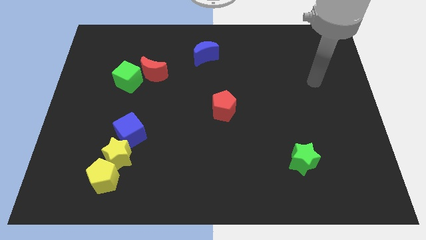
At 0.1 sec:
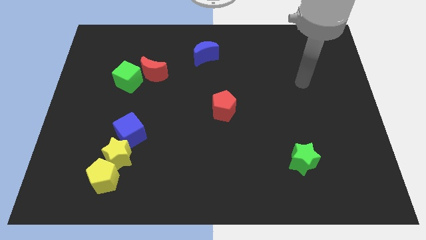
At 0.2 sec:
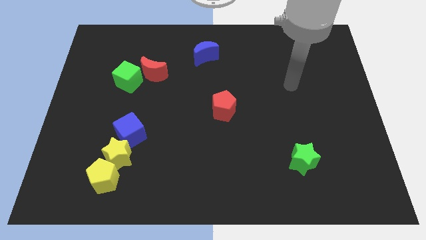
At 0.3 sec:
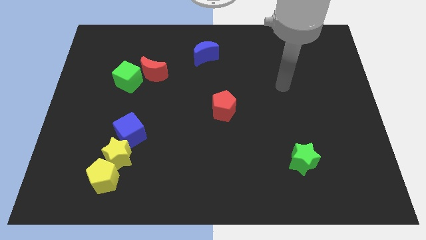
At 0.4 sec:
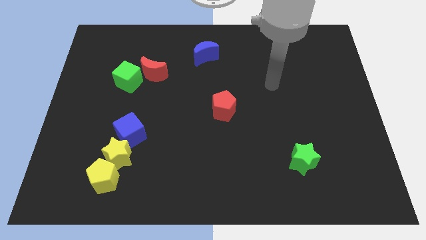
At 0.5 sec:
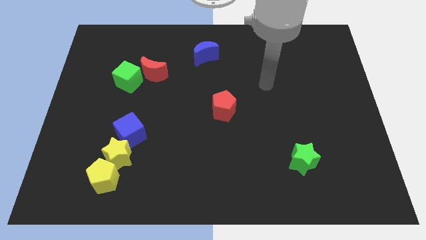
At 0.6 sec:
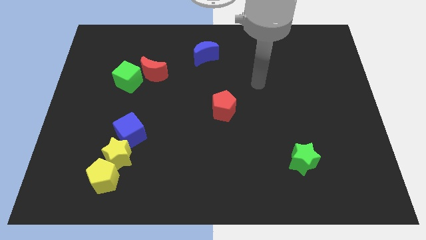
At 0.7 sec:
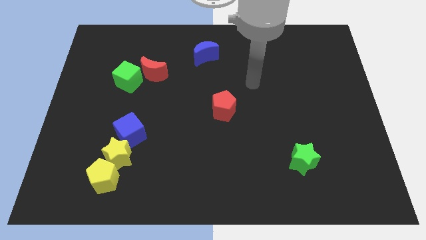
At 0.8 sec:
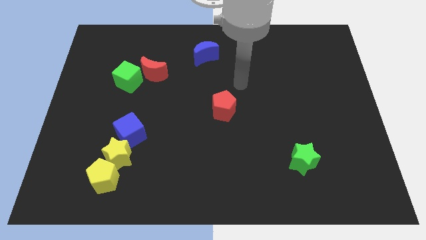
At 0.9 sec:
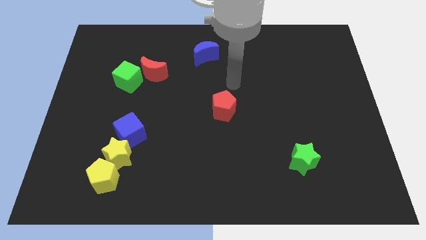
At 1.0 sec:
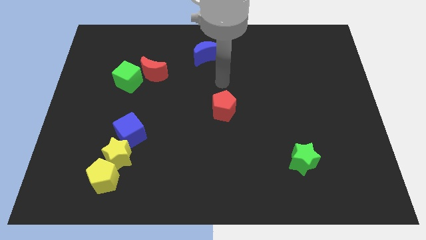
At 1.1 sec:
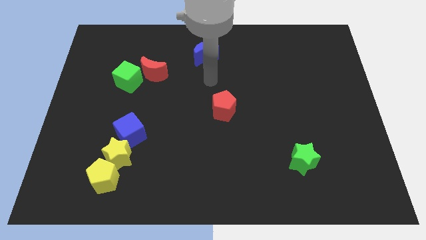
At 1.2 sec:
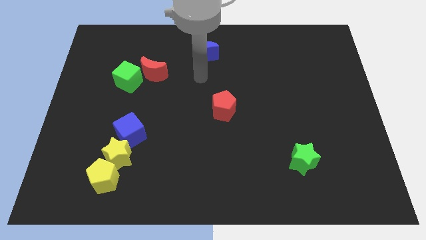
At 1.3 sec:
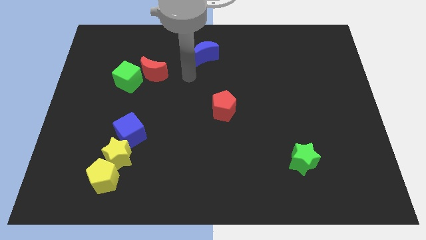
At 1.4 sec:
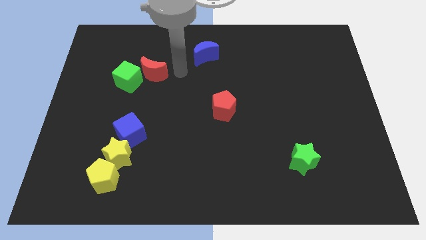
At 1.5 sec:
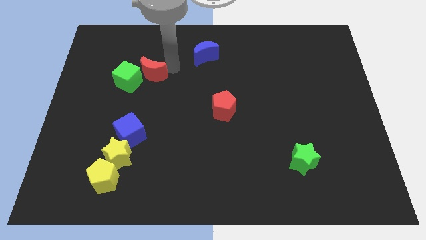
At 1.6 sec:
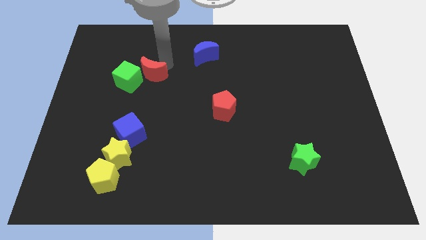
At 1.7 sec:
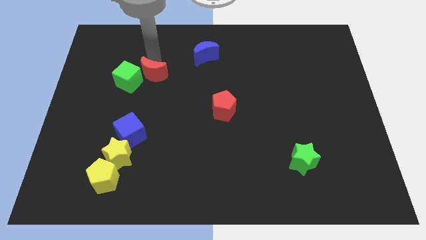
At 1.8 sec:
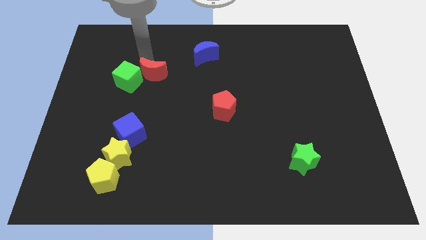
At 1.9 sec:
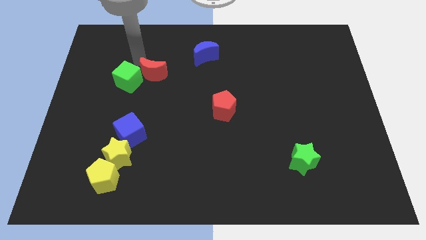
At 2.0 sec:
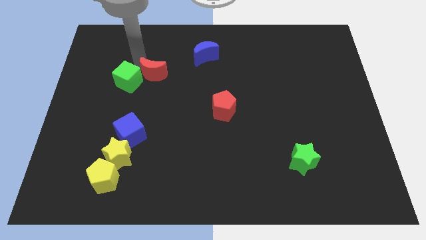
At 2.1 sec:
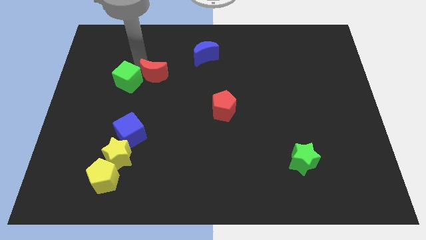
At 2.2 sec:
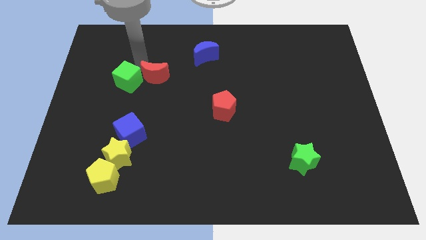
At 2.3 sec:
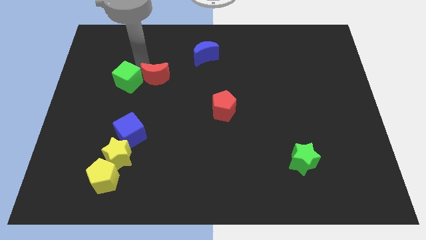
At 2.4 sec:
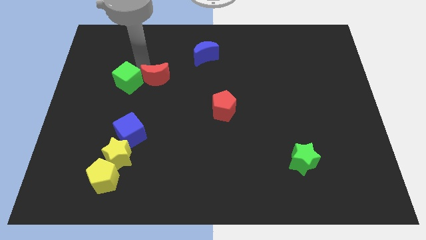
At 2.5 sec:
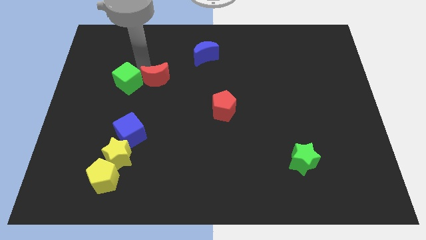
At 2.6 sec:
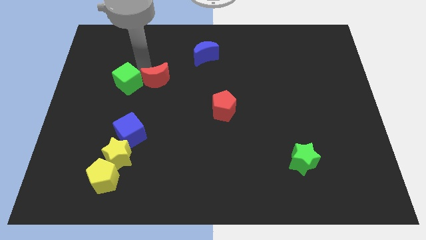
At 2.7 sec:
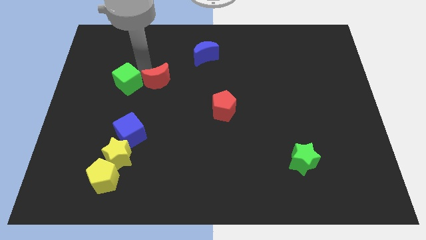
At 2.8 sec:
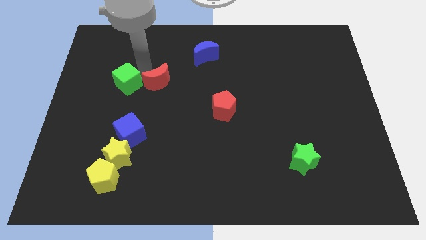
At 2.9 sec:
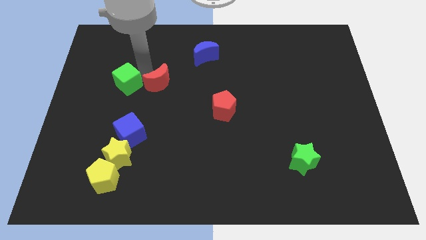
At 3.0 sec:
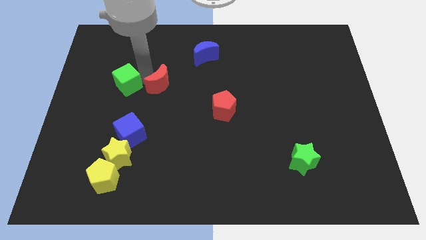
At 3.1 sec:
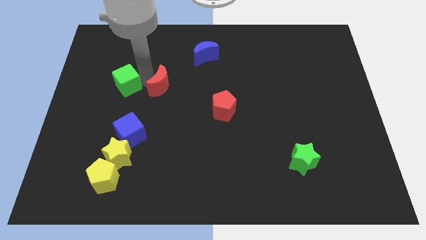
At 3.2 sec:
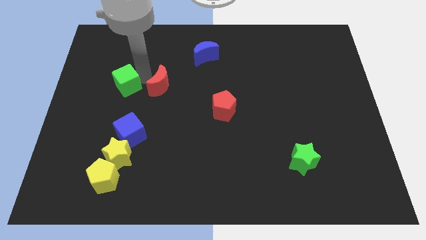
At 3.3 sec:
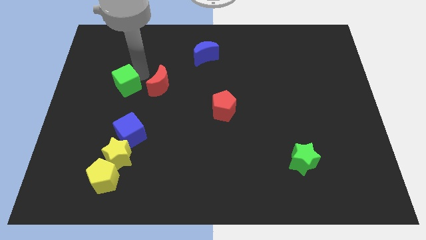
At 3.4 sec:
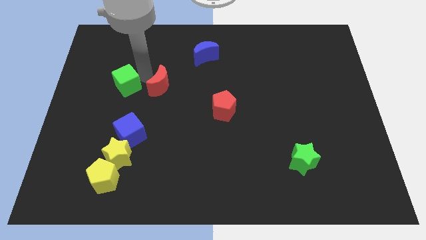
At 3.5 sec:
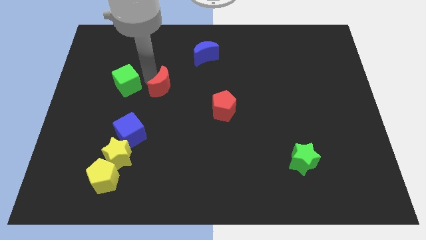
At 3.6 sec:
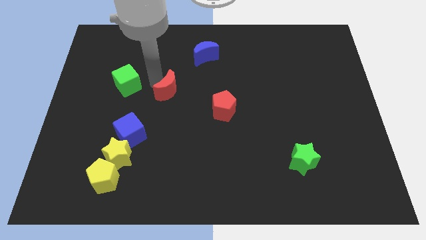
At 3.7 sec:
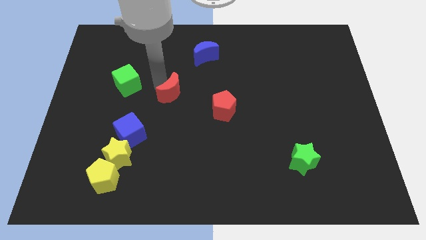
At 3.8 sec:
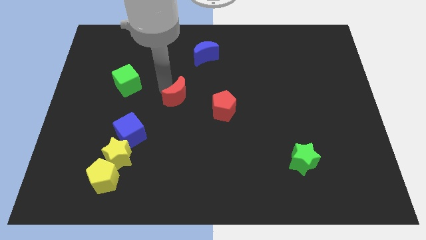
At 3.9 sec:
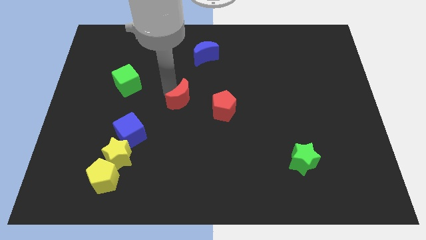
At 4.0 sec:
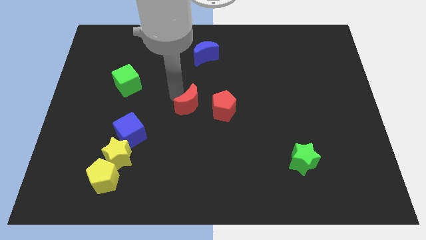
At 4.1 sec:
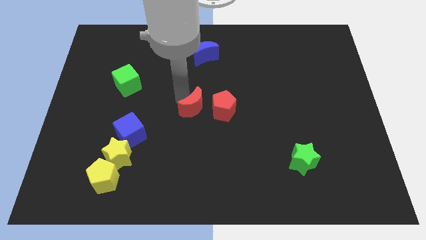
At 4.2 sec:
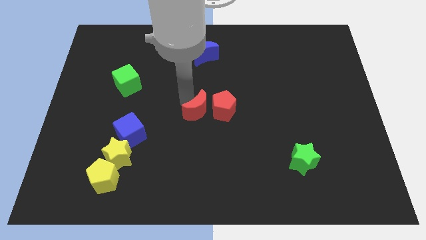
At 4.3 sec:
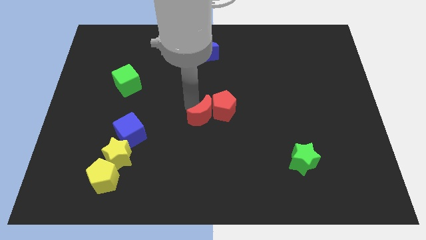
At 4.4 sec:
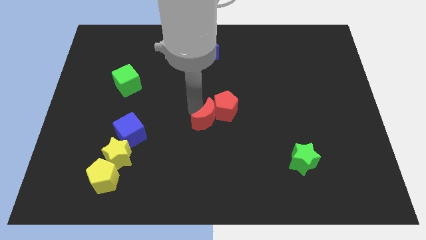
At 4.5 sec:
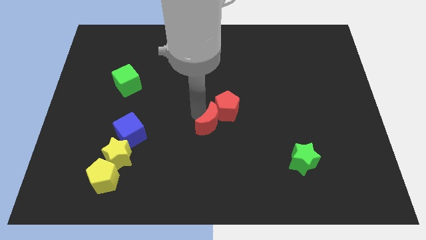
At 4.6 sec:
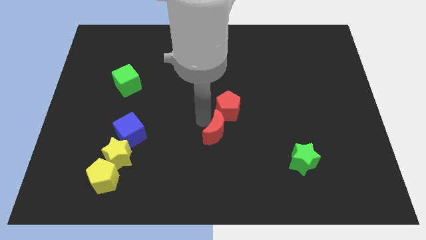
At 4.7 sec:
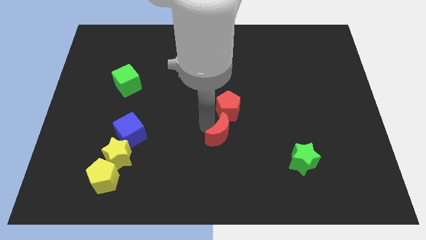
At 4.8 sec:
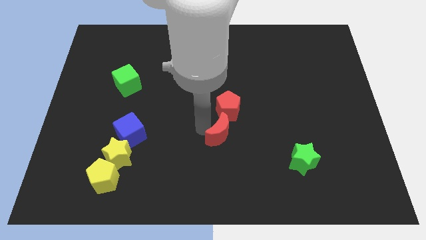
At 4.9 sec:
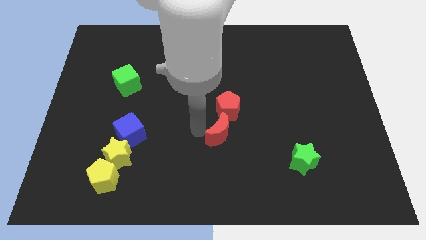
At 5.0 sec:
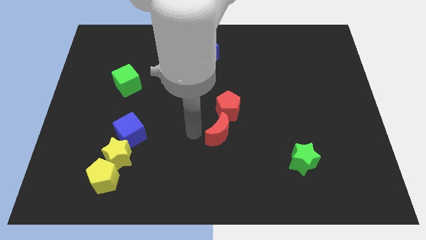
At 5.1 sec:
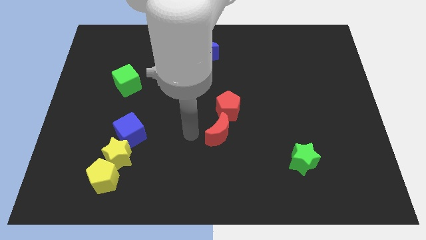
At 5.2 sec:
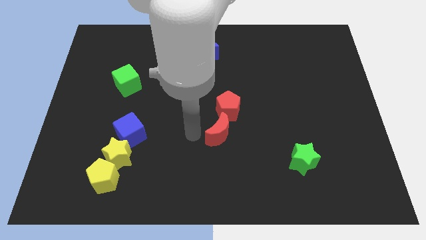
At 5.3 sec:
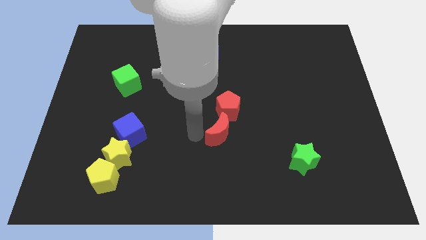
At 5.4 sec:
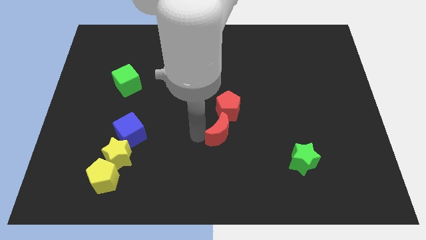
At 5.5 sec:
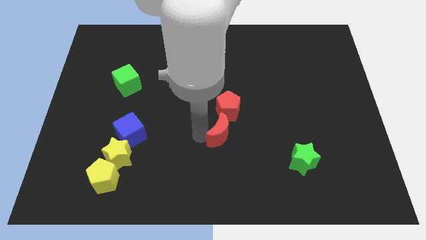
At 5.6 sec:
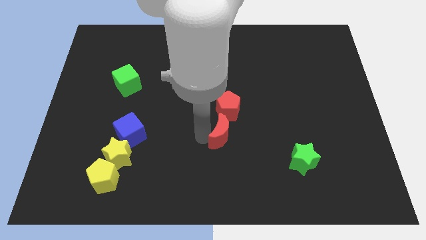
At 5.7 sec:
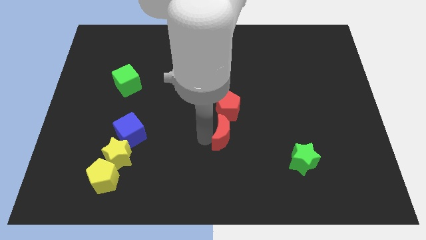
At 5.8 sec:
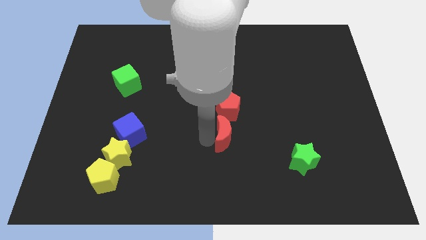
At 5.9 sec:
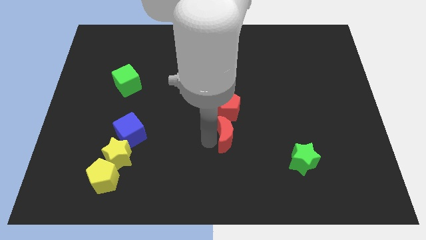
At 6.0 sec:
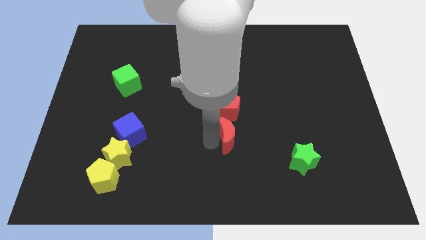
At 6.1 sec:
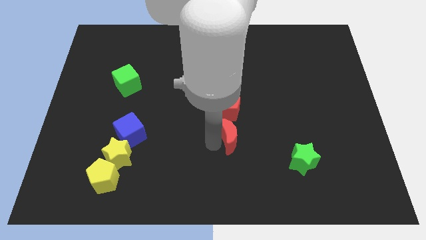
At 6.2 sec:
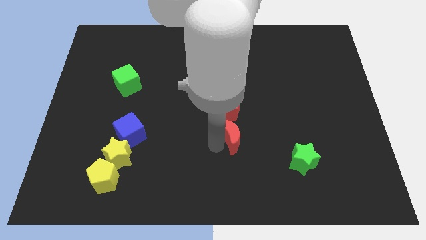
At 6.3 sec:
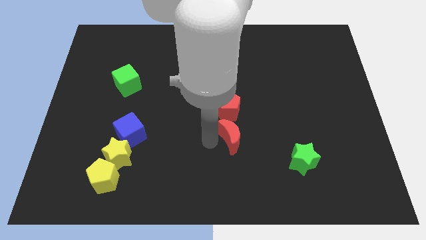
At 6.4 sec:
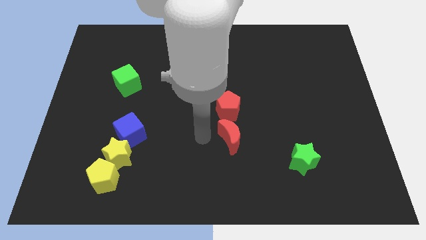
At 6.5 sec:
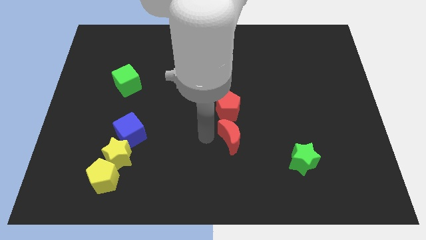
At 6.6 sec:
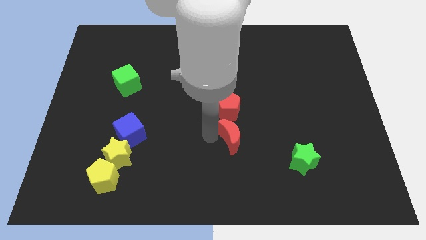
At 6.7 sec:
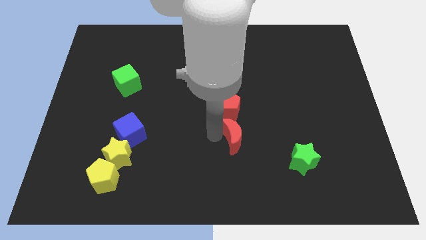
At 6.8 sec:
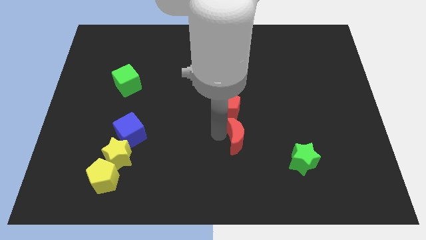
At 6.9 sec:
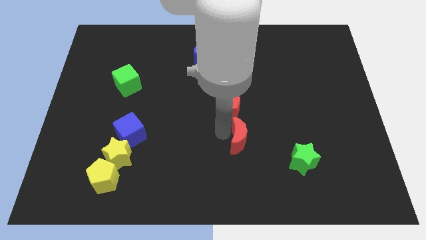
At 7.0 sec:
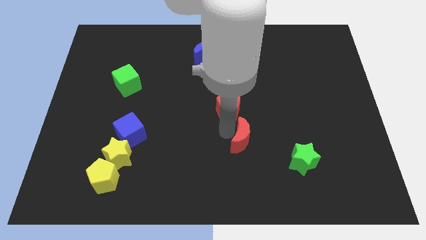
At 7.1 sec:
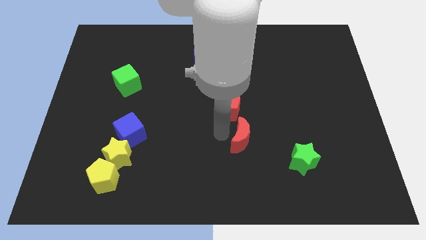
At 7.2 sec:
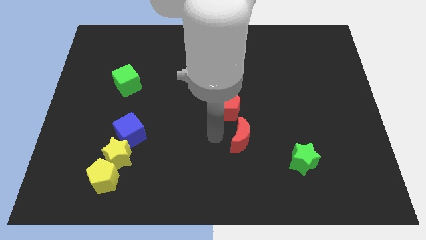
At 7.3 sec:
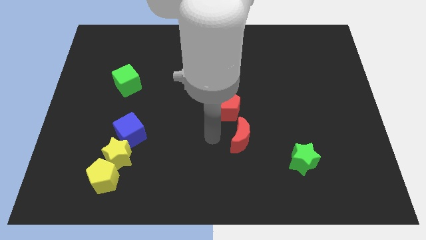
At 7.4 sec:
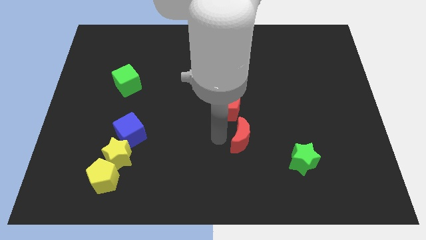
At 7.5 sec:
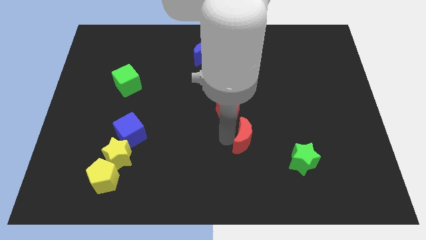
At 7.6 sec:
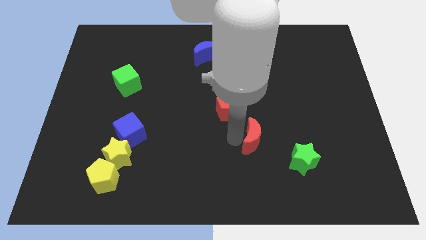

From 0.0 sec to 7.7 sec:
put the red moon diagonally up and to the left of the green star
